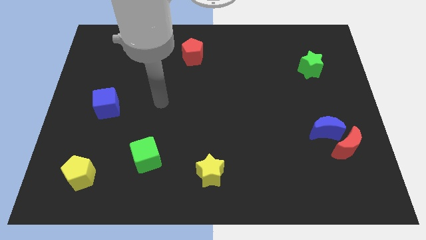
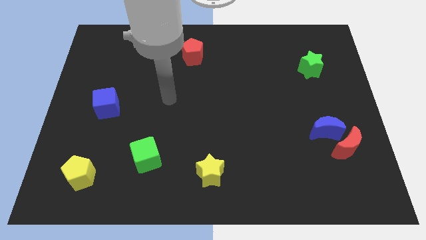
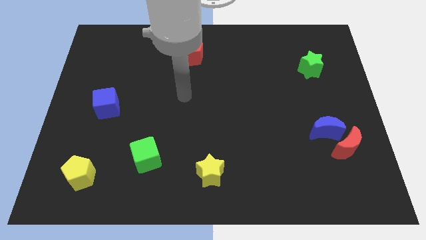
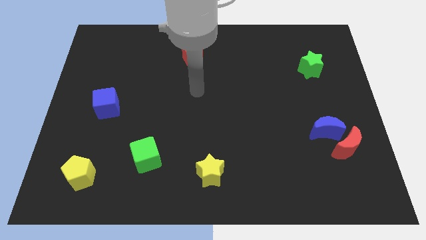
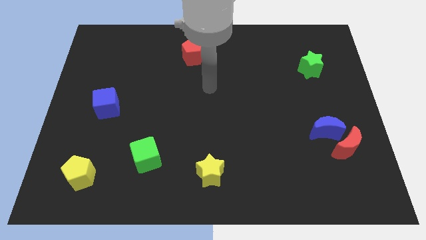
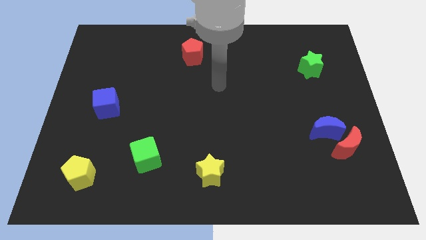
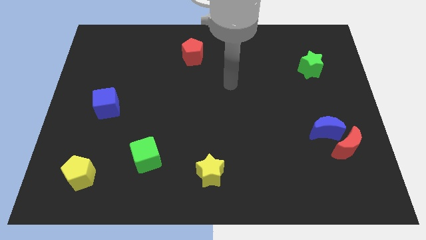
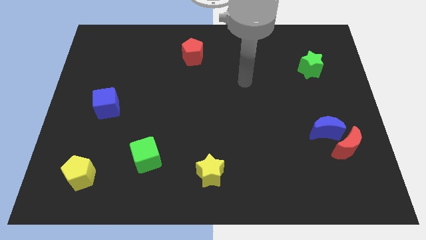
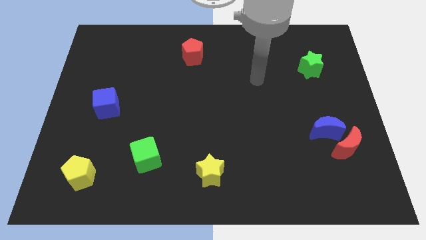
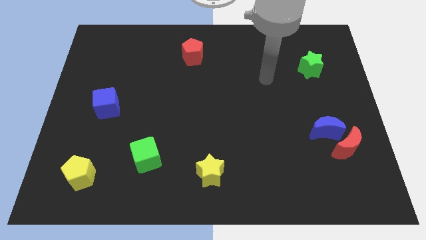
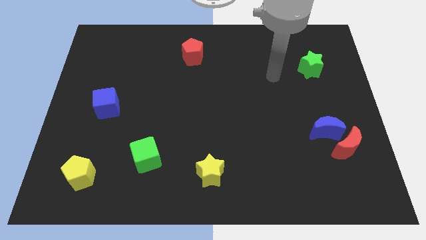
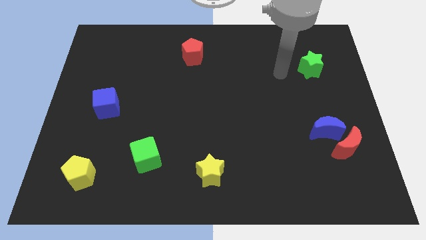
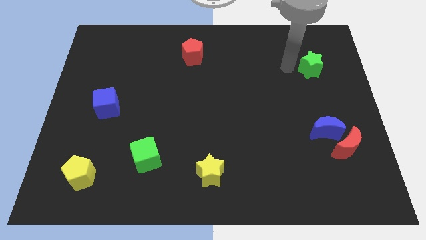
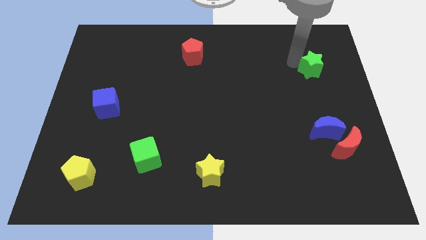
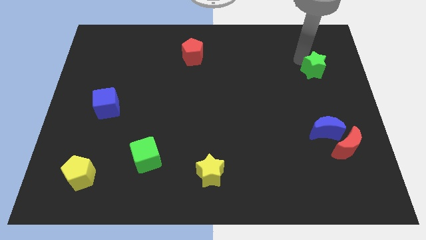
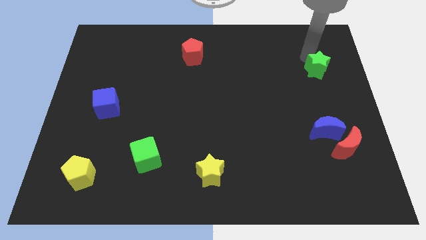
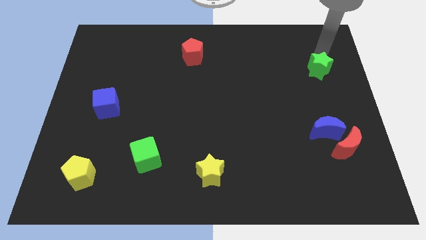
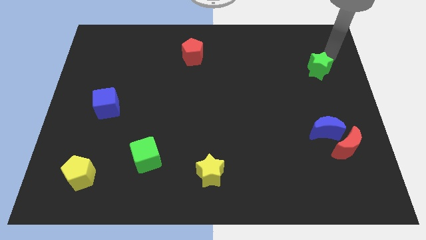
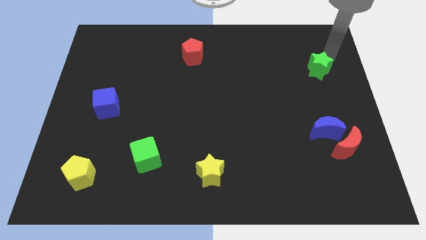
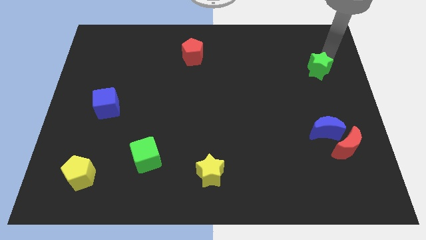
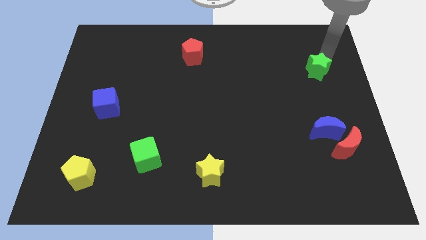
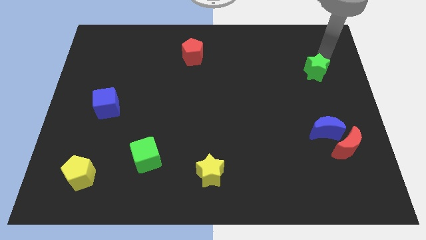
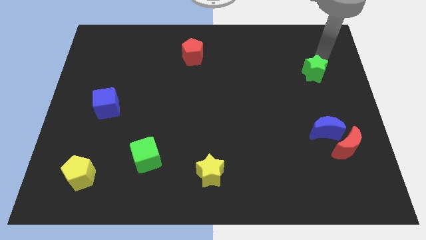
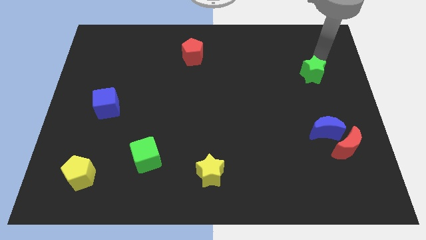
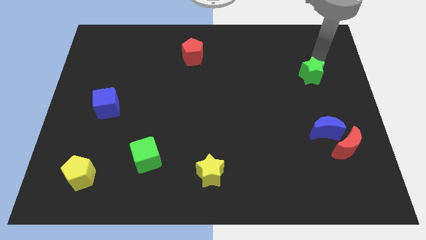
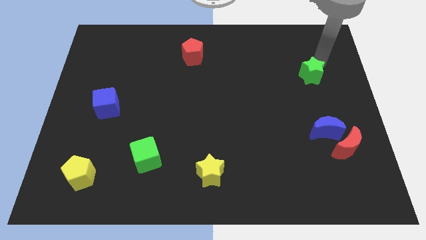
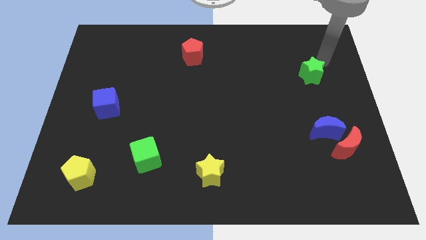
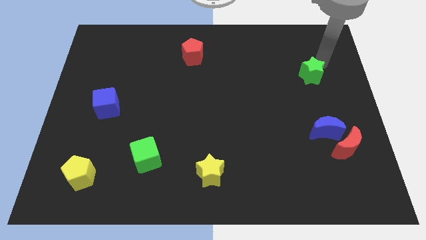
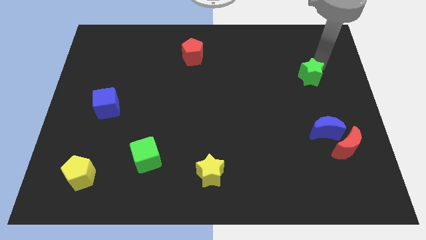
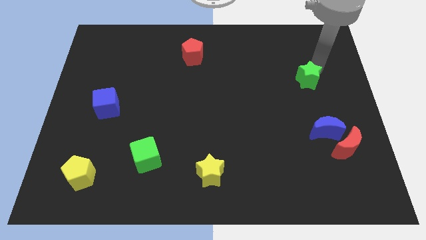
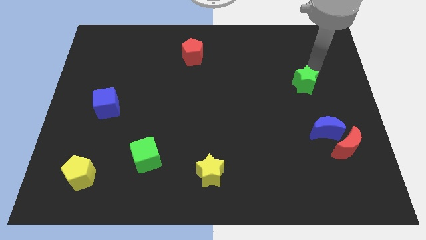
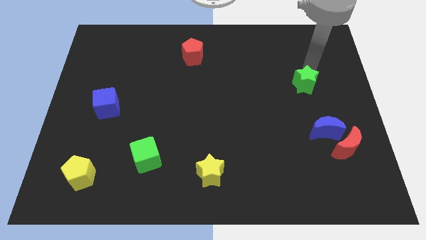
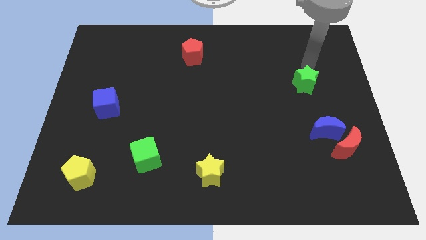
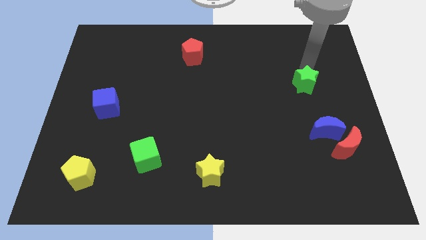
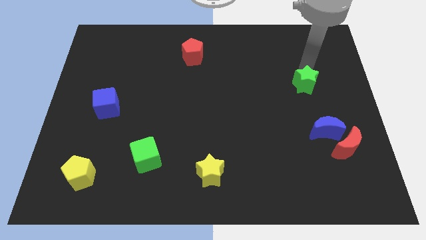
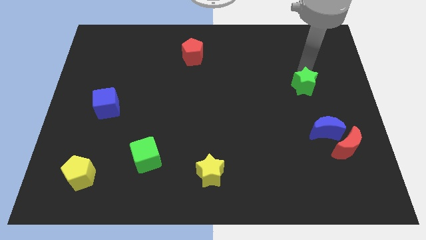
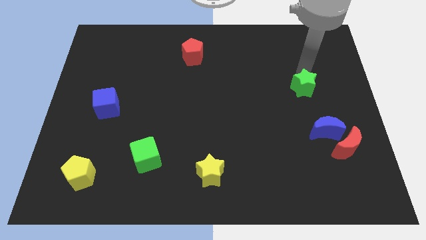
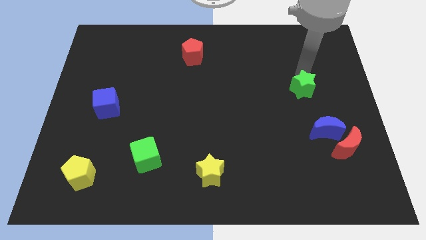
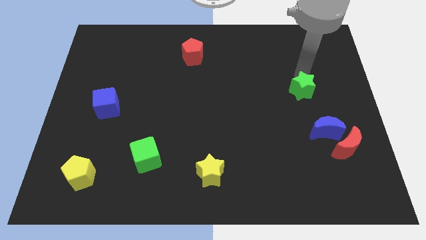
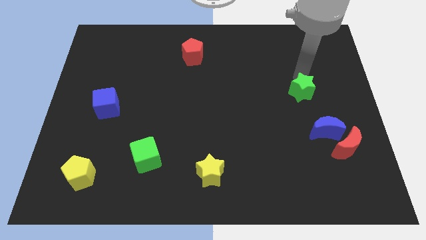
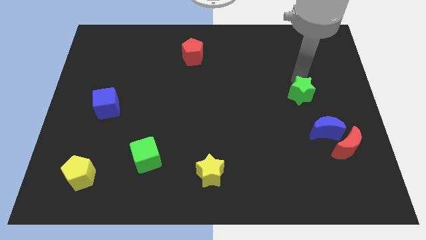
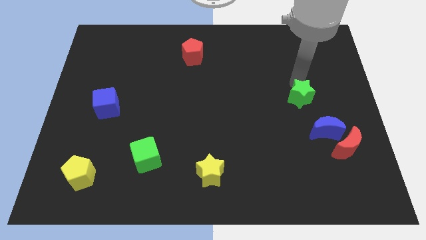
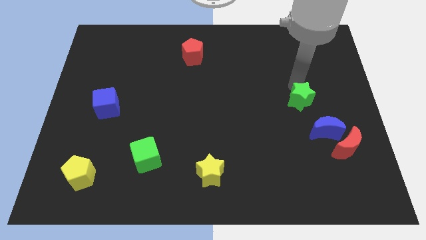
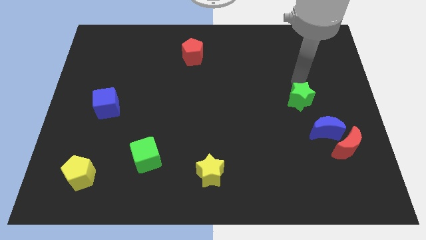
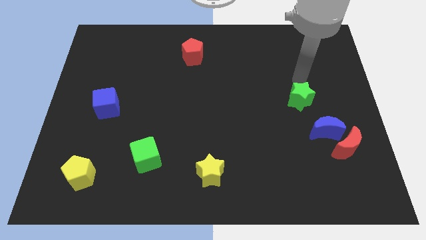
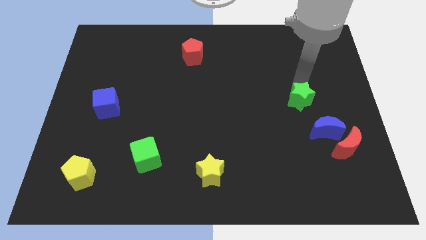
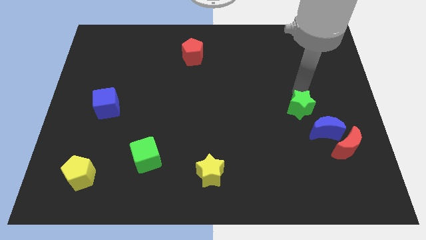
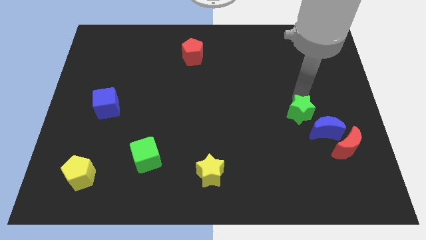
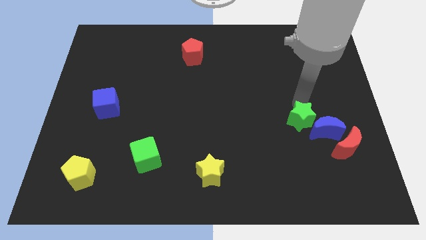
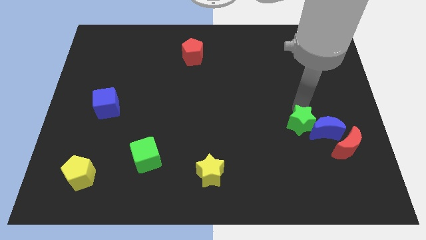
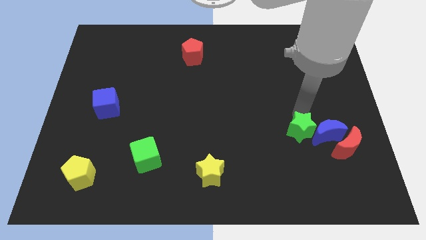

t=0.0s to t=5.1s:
push the green star to the left of the red moon

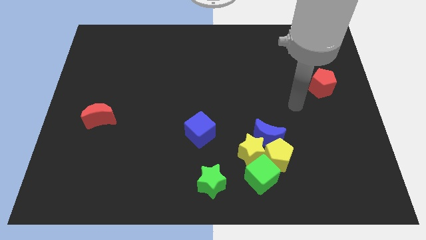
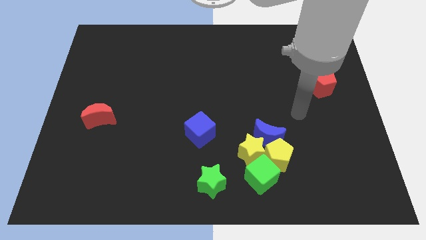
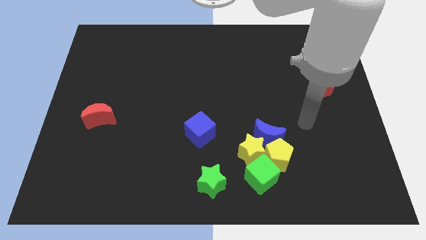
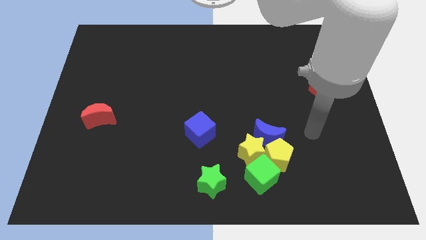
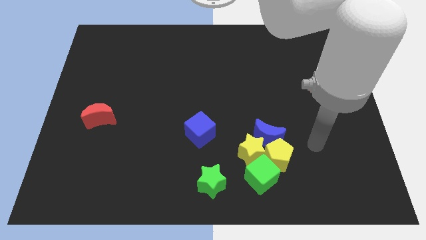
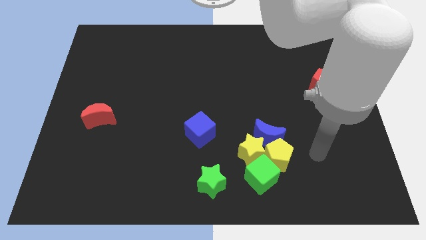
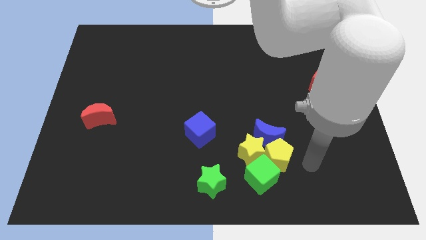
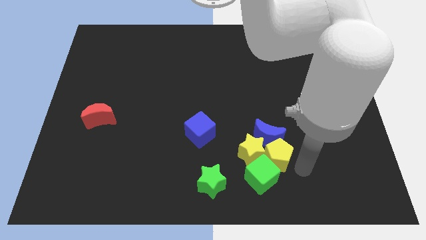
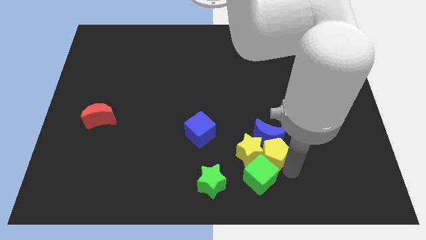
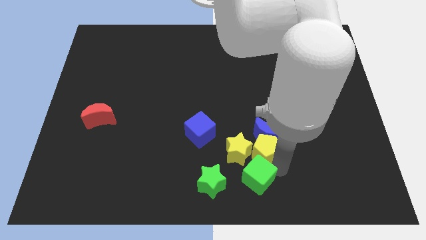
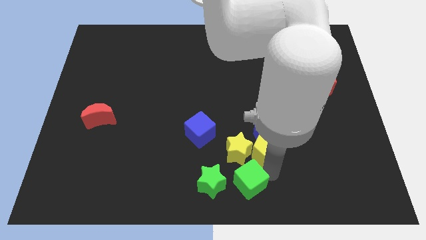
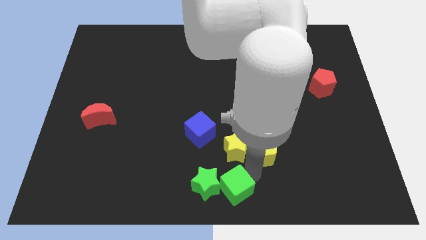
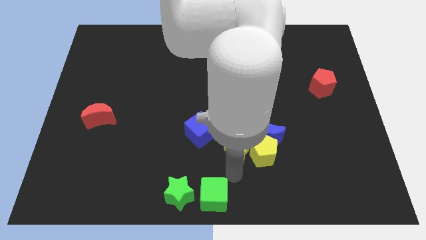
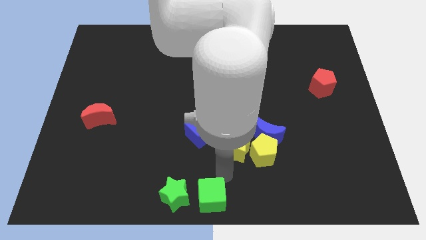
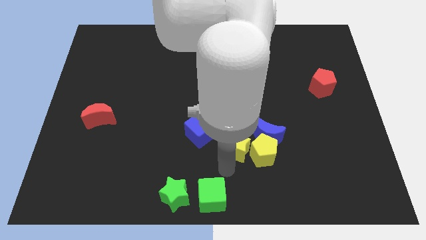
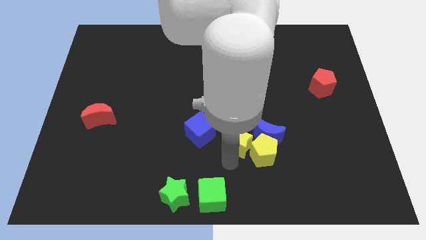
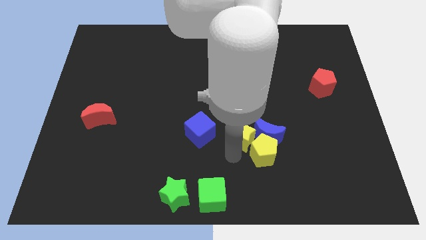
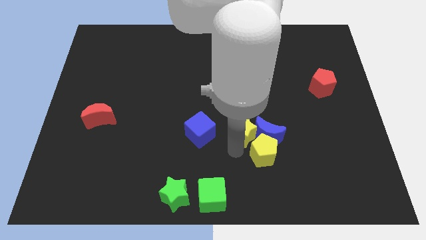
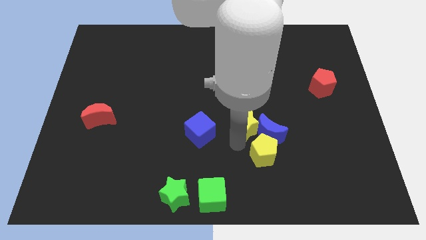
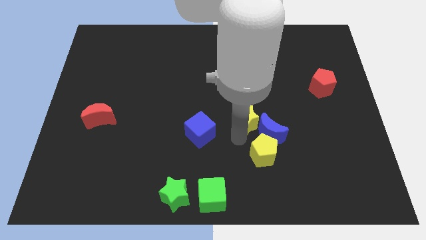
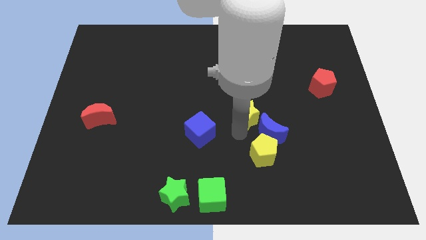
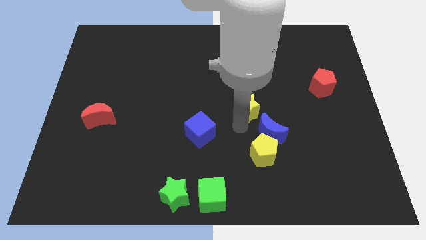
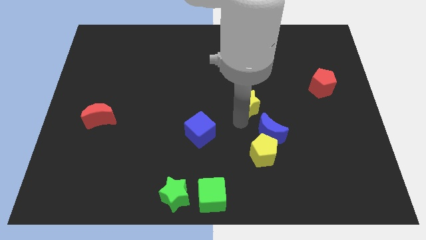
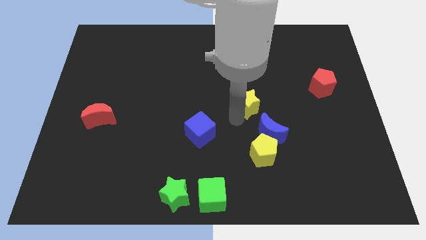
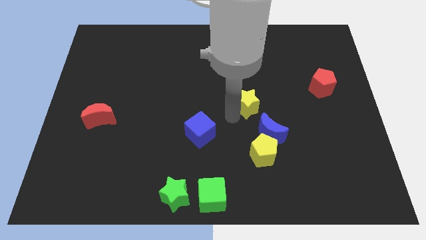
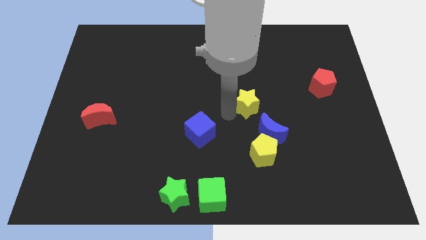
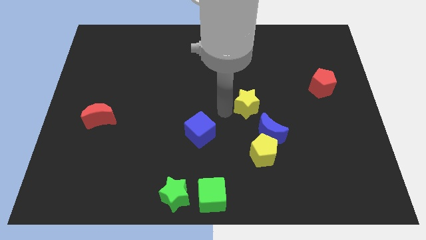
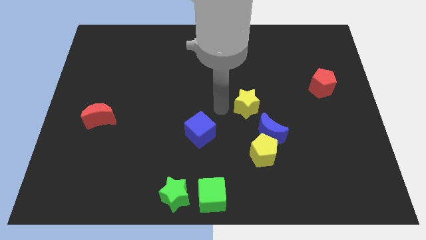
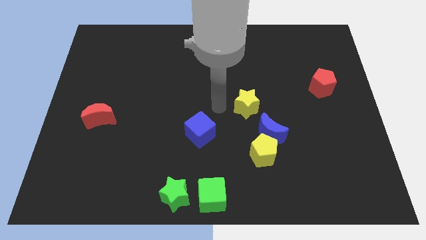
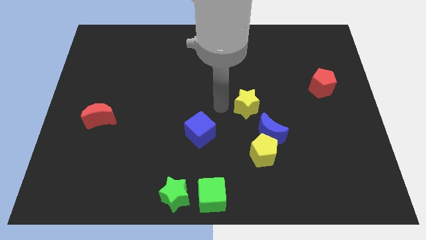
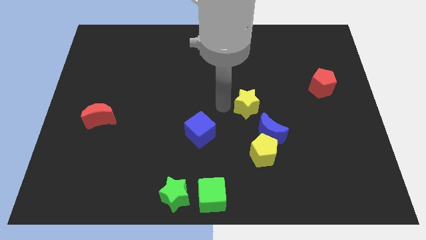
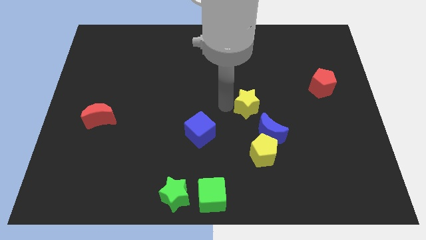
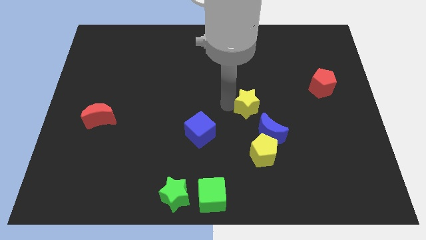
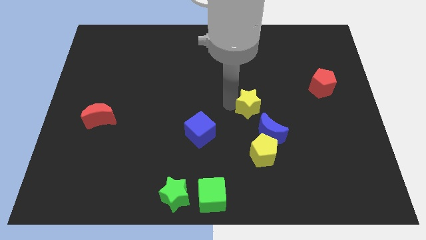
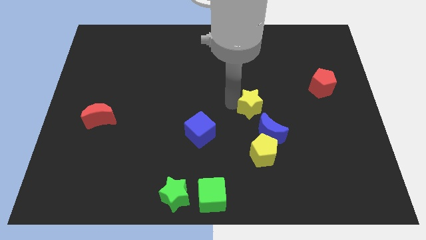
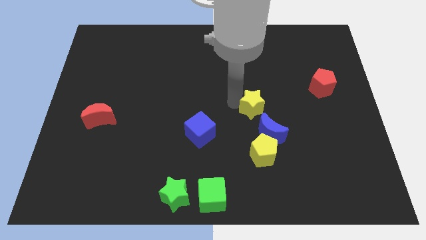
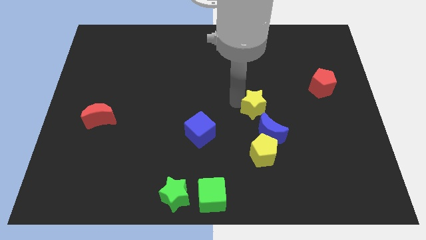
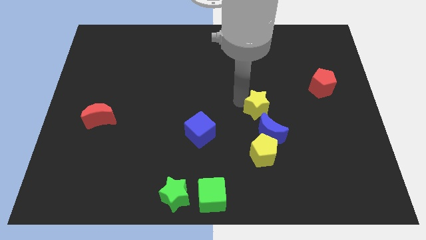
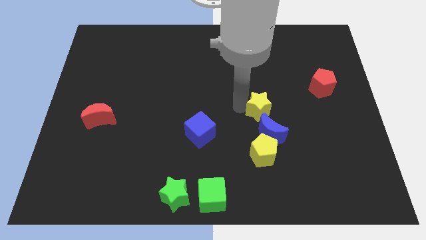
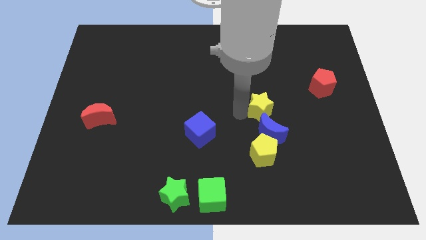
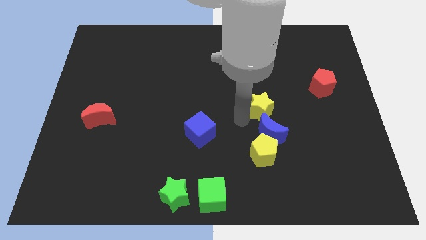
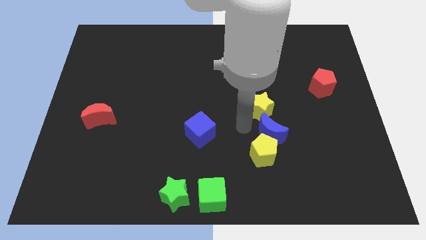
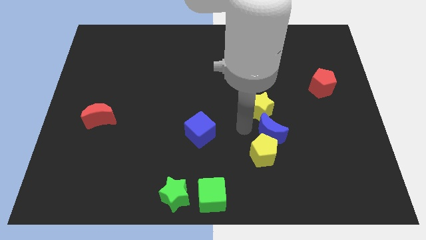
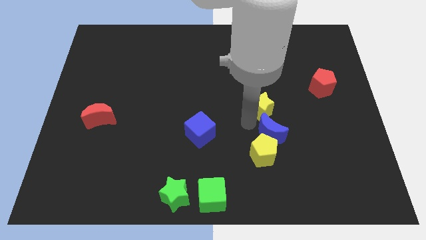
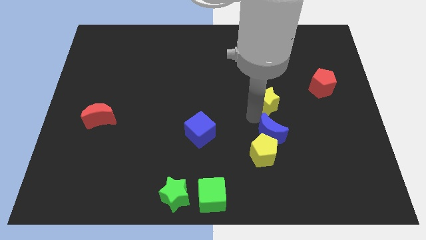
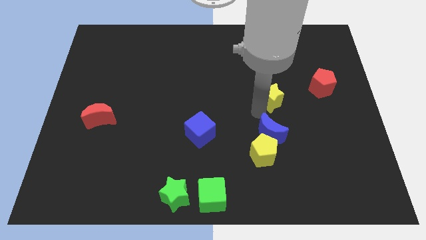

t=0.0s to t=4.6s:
slide the yellow star left of the red pentagon
